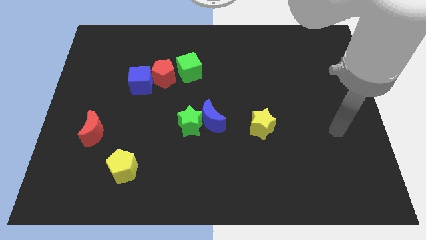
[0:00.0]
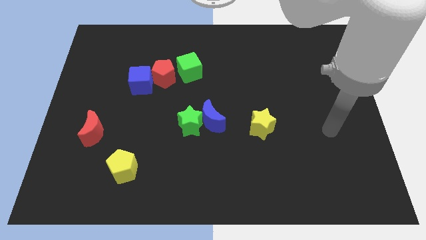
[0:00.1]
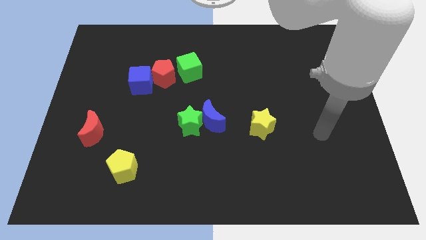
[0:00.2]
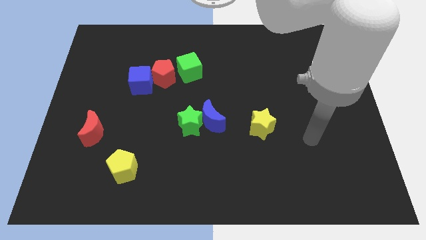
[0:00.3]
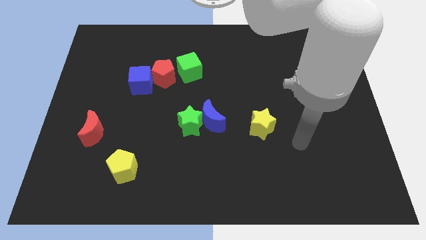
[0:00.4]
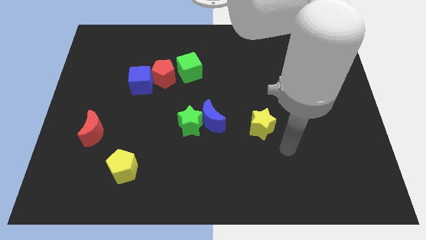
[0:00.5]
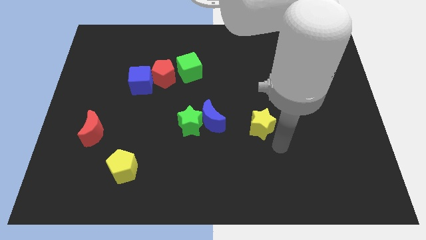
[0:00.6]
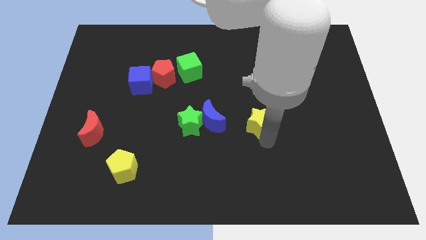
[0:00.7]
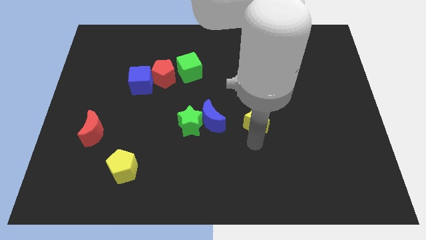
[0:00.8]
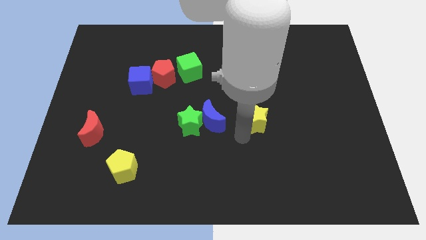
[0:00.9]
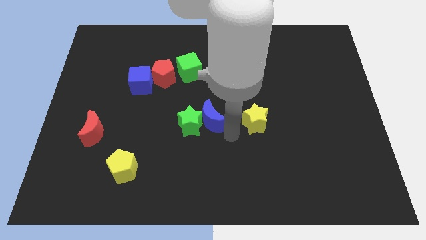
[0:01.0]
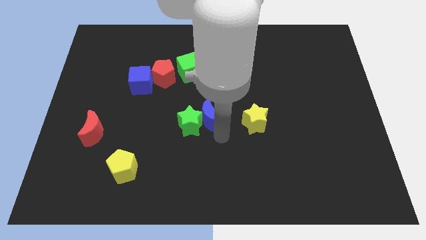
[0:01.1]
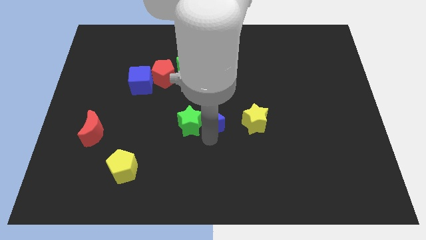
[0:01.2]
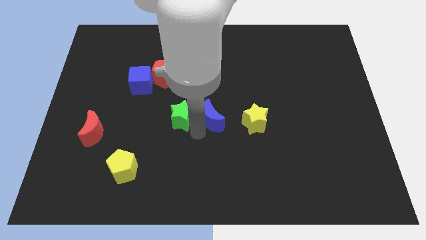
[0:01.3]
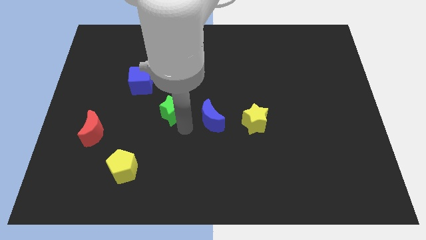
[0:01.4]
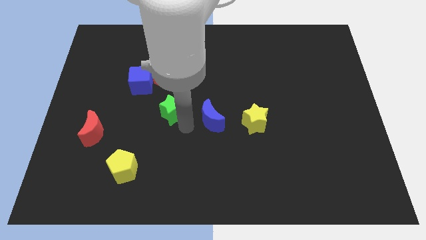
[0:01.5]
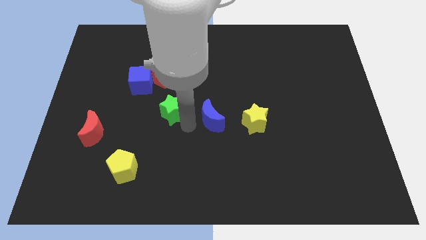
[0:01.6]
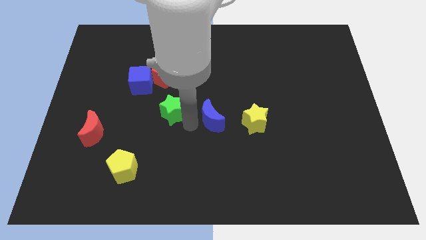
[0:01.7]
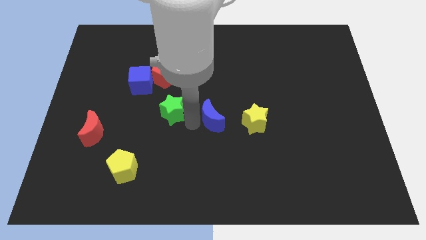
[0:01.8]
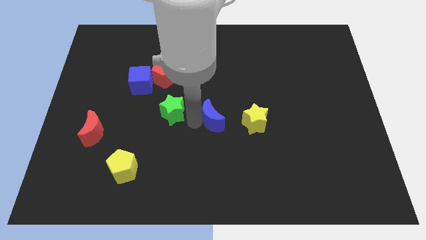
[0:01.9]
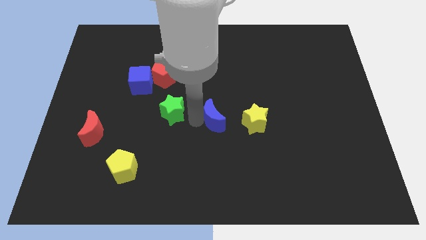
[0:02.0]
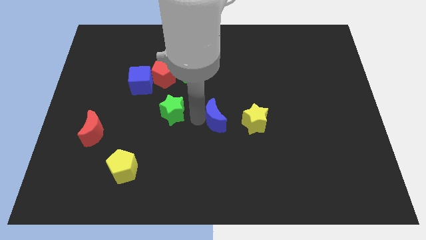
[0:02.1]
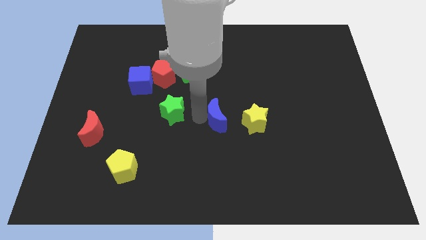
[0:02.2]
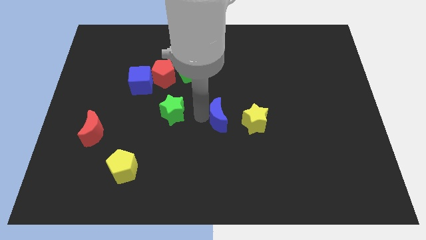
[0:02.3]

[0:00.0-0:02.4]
separate the blue moon from the green star

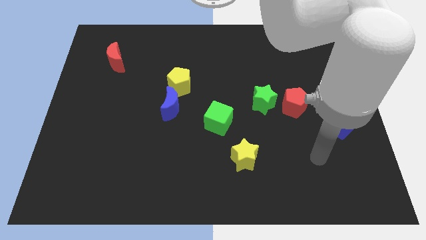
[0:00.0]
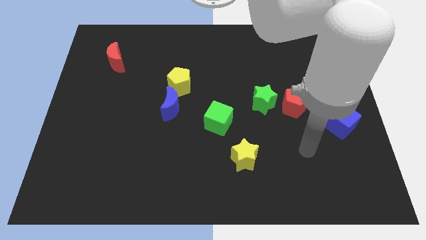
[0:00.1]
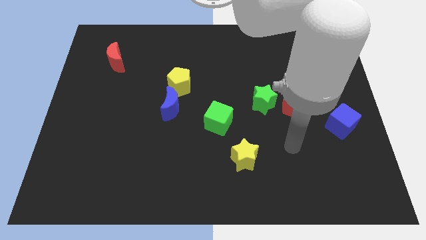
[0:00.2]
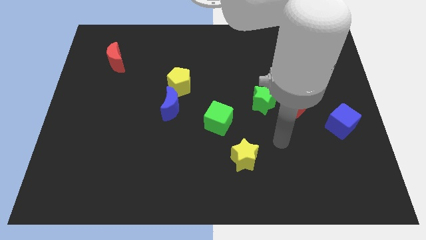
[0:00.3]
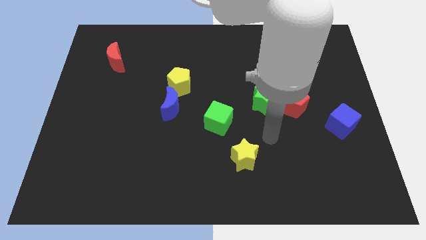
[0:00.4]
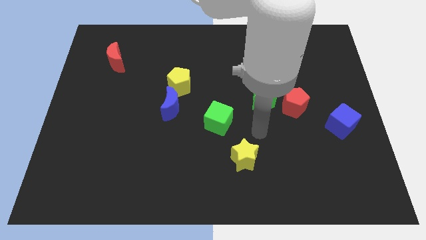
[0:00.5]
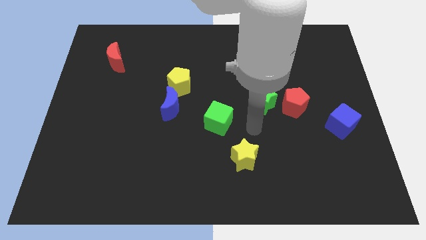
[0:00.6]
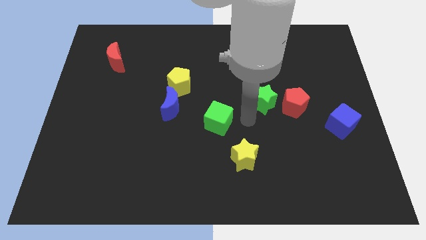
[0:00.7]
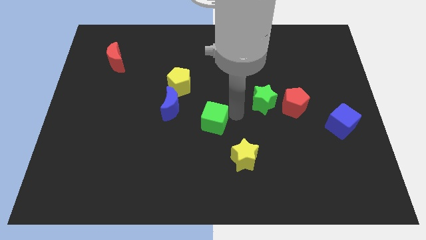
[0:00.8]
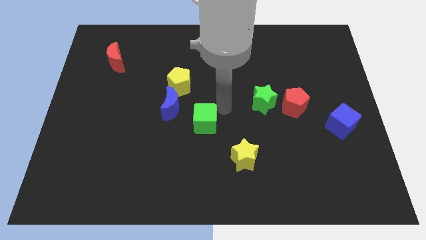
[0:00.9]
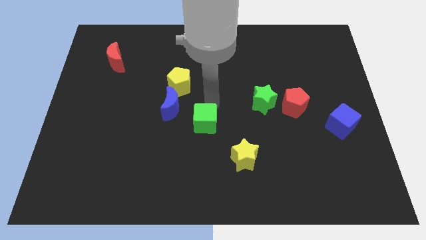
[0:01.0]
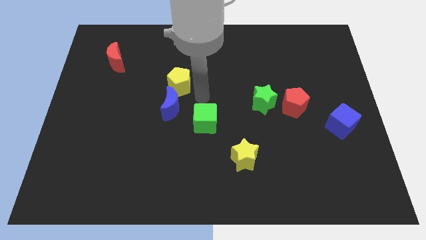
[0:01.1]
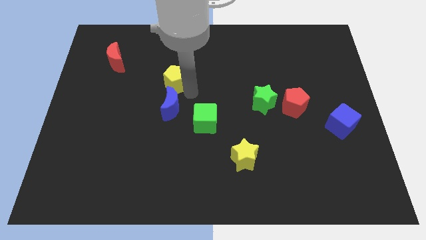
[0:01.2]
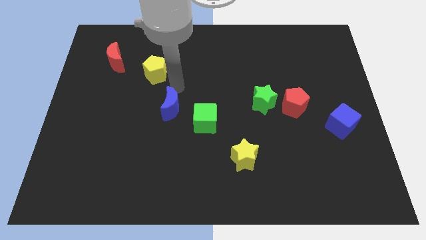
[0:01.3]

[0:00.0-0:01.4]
pull the blue moon apart from the yellow pentagon

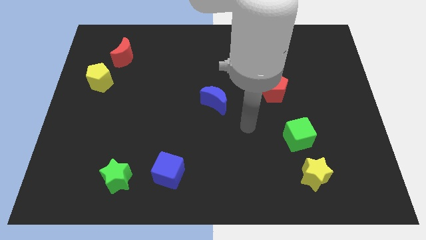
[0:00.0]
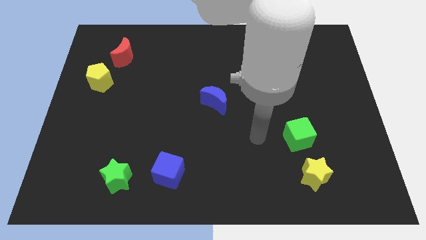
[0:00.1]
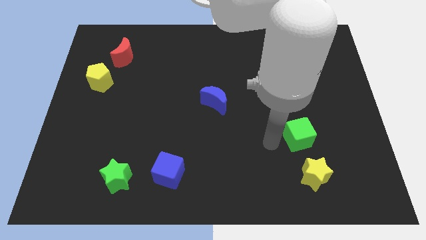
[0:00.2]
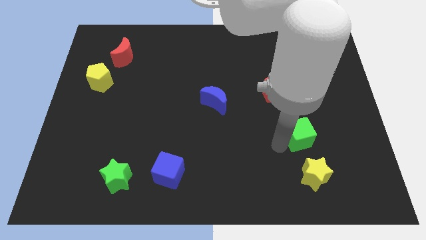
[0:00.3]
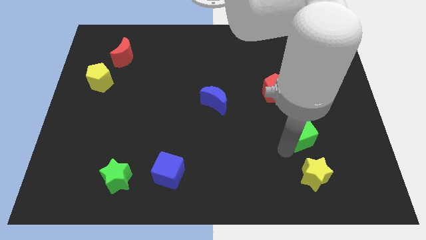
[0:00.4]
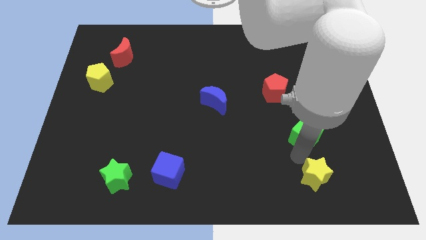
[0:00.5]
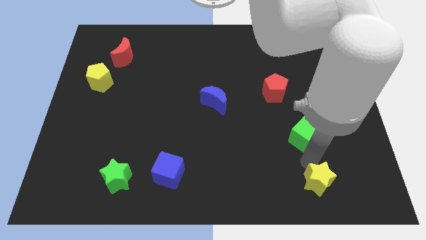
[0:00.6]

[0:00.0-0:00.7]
pull the green cube apart from the yellow star

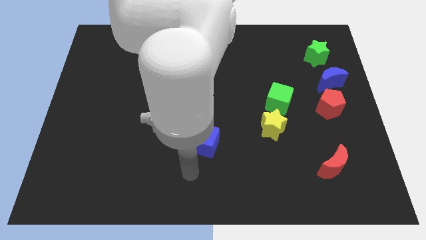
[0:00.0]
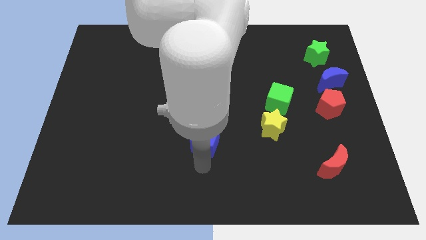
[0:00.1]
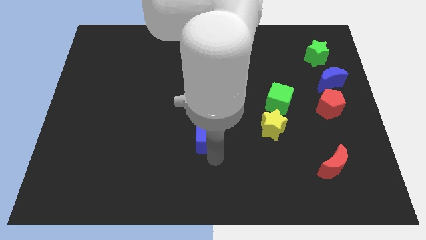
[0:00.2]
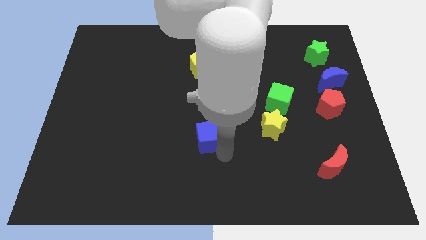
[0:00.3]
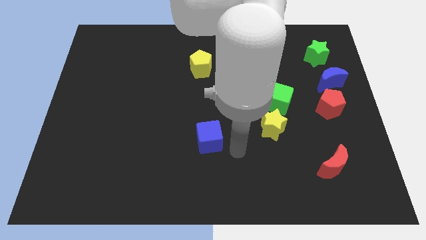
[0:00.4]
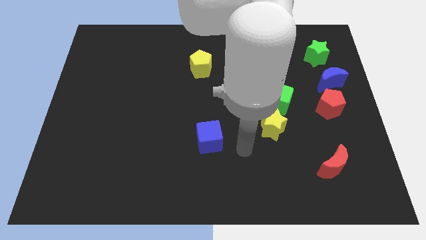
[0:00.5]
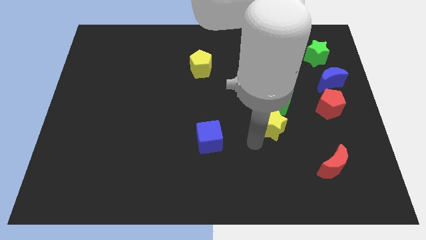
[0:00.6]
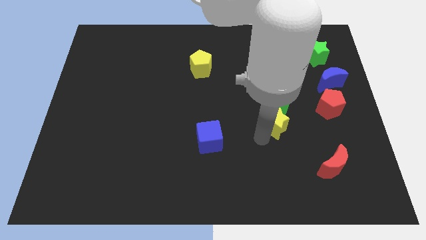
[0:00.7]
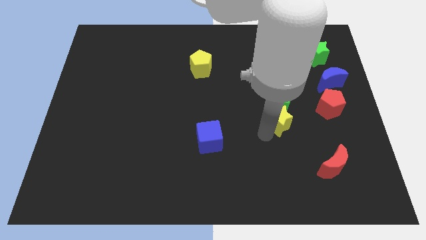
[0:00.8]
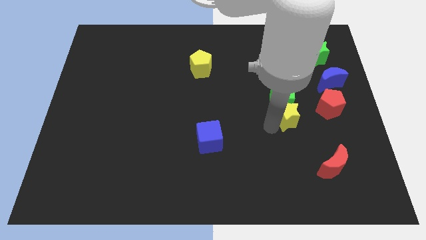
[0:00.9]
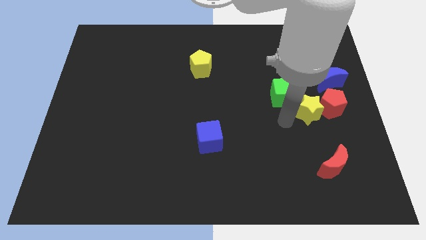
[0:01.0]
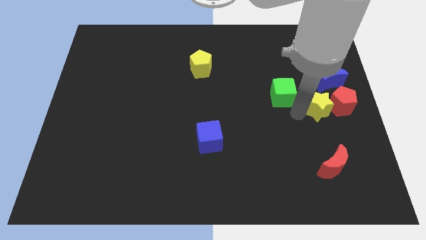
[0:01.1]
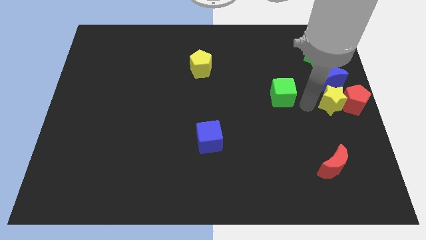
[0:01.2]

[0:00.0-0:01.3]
move the green cube away from the yellow star

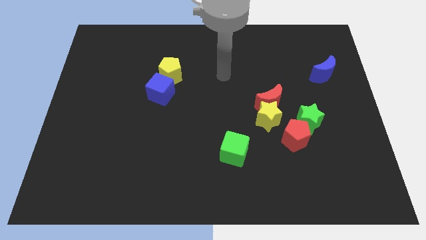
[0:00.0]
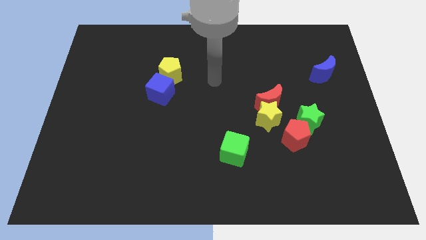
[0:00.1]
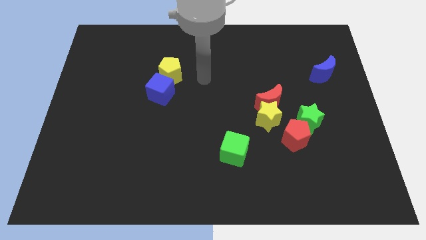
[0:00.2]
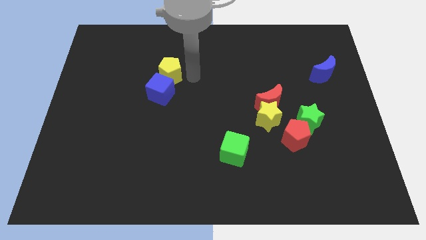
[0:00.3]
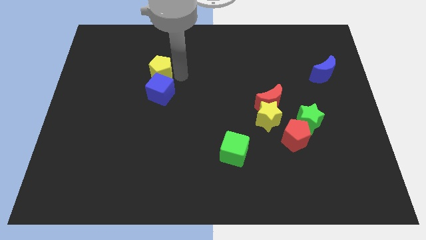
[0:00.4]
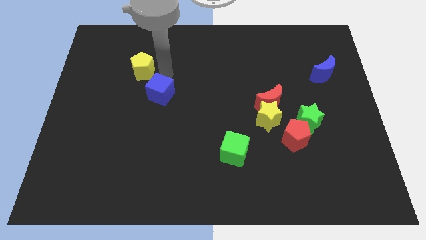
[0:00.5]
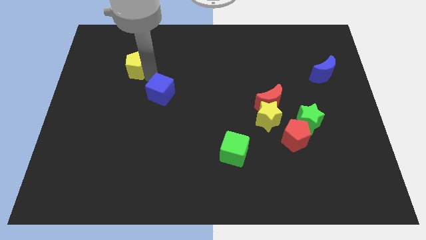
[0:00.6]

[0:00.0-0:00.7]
pull the blue cube apart from the yellow pentagon

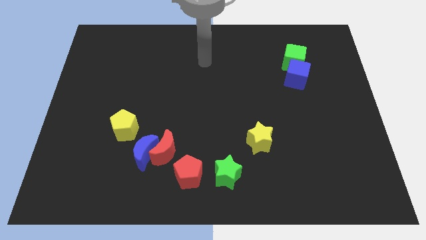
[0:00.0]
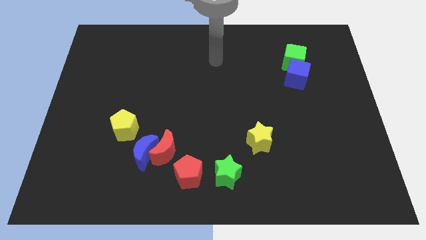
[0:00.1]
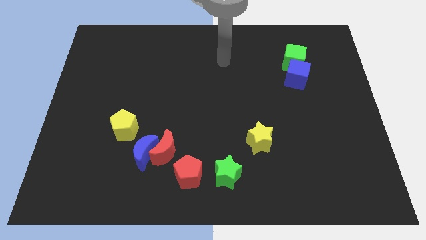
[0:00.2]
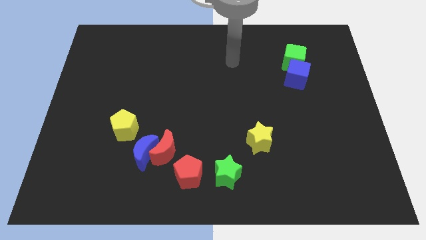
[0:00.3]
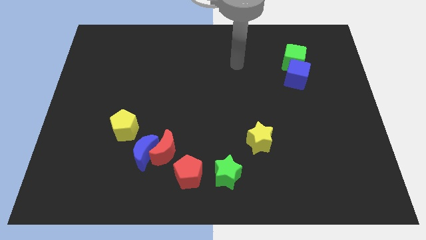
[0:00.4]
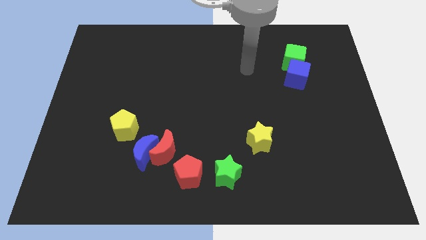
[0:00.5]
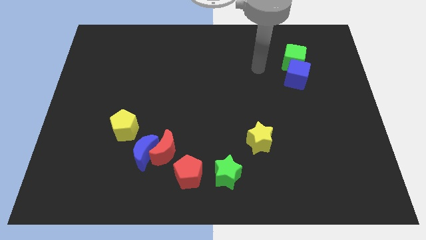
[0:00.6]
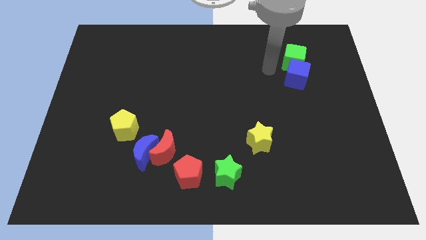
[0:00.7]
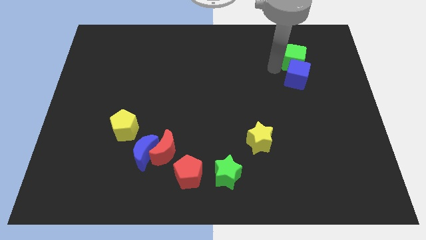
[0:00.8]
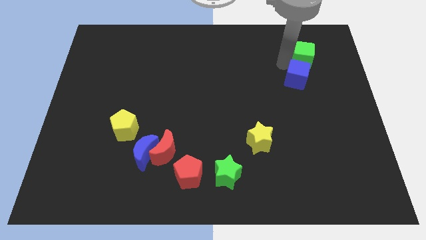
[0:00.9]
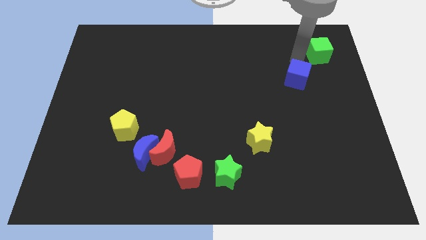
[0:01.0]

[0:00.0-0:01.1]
pull the blue cube apart from the green cube

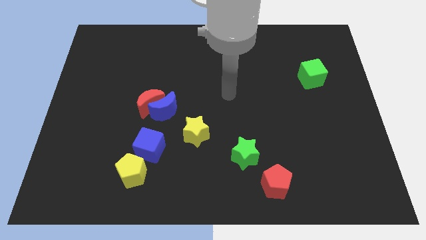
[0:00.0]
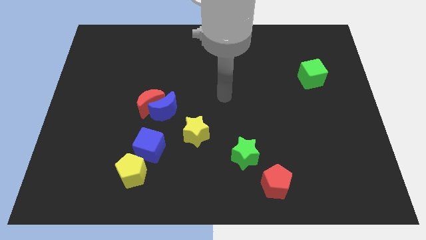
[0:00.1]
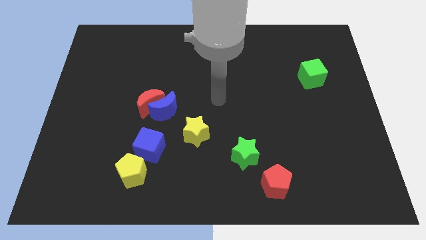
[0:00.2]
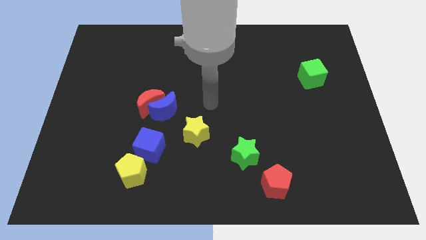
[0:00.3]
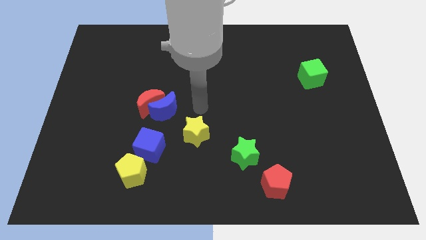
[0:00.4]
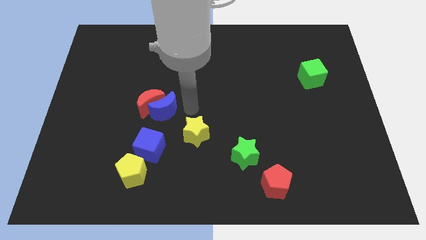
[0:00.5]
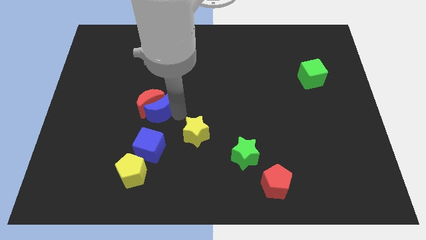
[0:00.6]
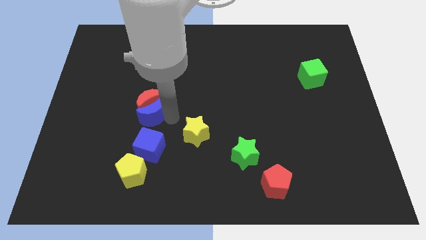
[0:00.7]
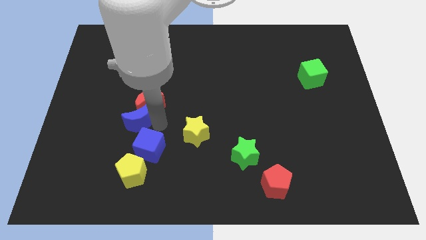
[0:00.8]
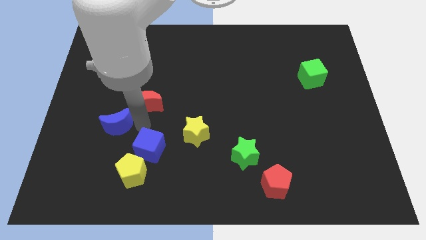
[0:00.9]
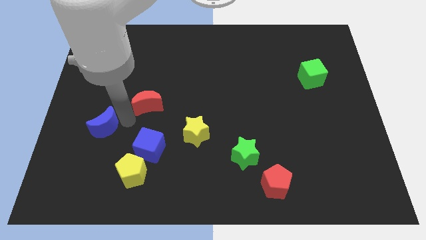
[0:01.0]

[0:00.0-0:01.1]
separate the red moon from the blue moon

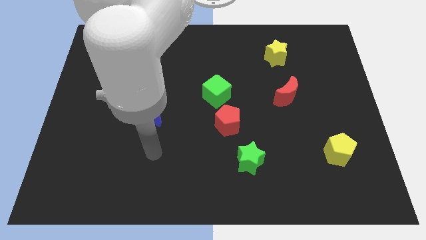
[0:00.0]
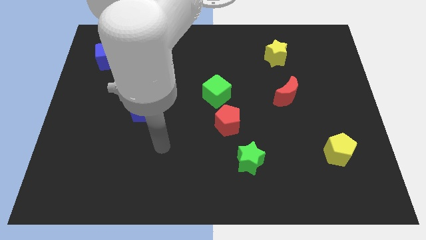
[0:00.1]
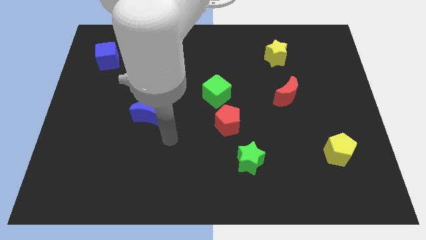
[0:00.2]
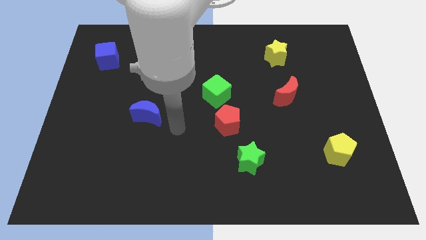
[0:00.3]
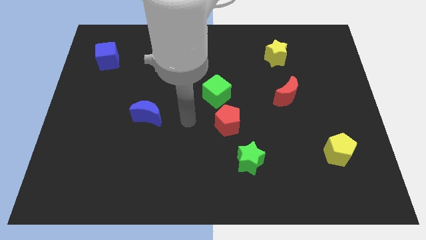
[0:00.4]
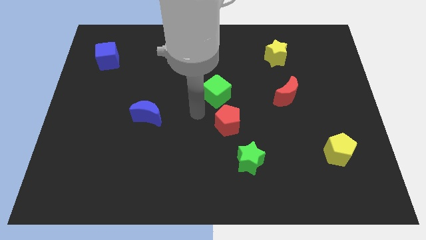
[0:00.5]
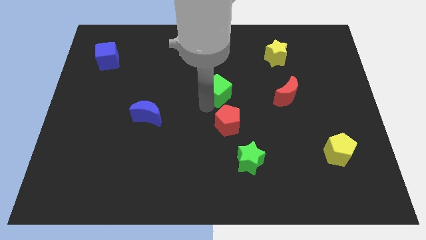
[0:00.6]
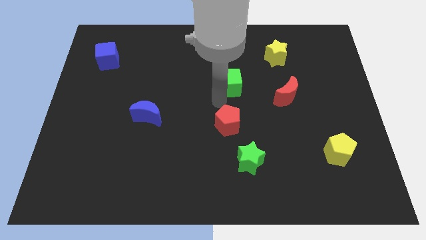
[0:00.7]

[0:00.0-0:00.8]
move the red pentagon away from the green cube
